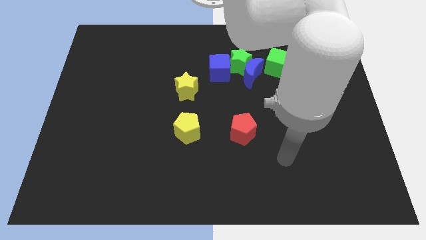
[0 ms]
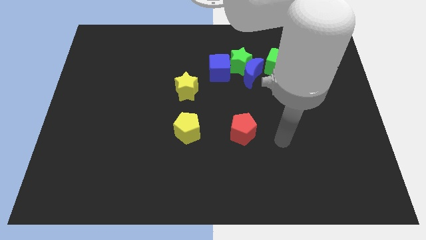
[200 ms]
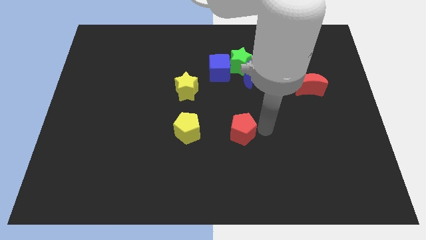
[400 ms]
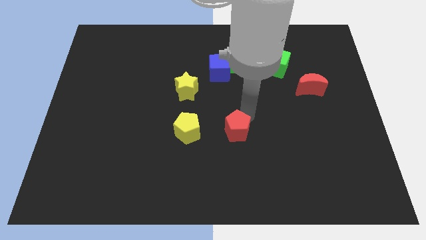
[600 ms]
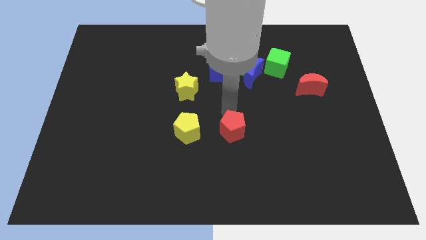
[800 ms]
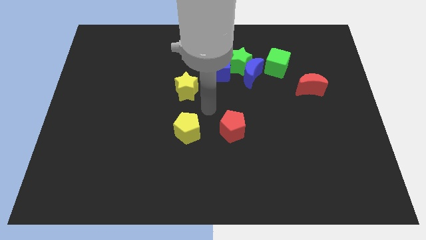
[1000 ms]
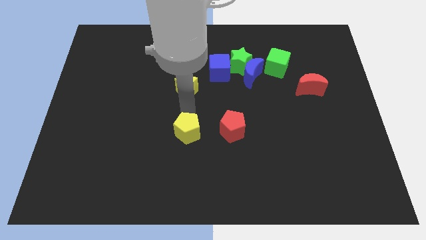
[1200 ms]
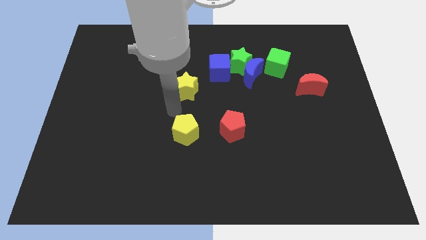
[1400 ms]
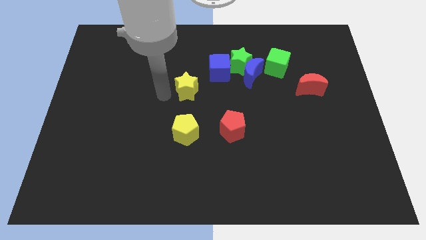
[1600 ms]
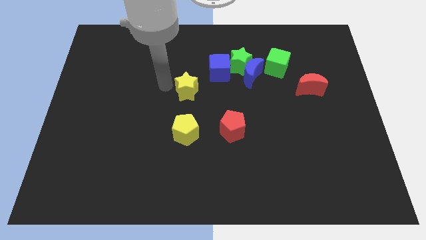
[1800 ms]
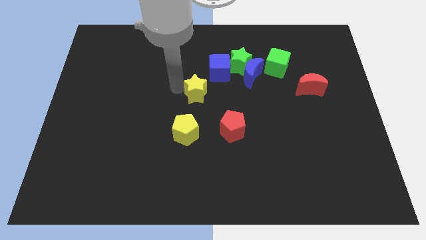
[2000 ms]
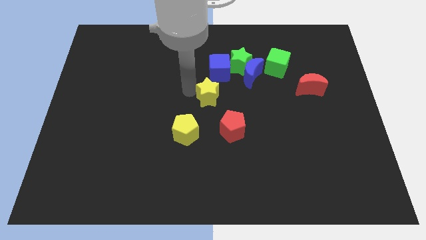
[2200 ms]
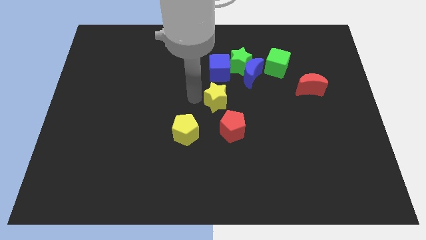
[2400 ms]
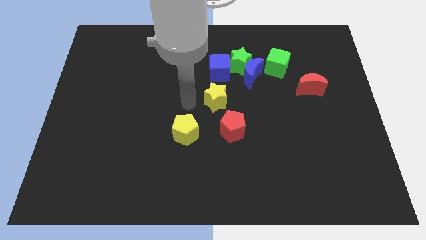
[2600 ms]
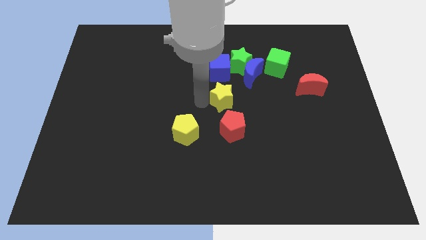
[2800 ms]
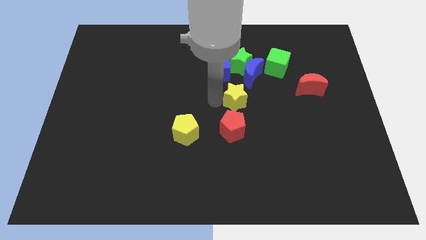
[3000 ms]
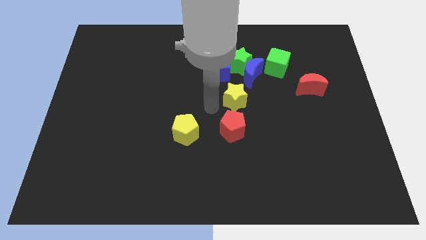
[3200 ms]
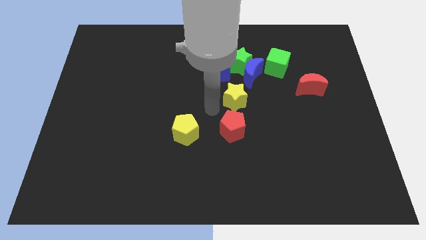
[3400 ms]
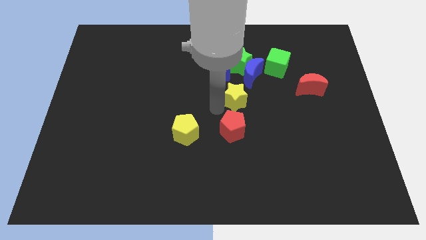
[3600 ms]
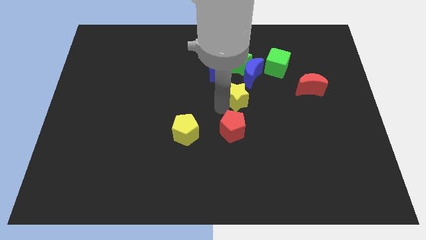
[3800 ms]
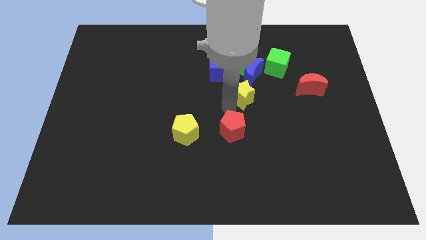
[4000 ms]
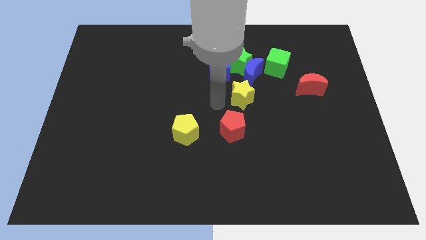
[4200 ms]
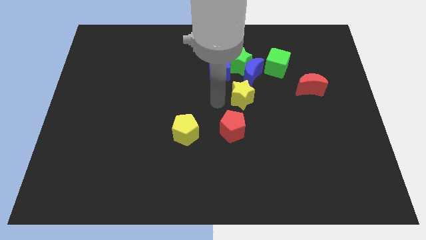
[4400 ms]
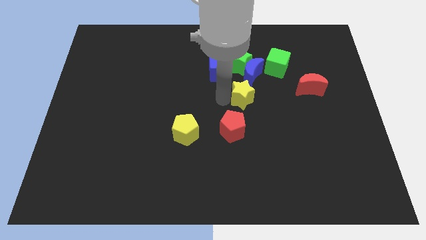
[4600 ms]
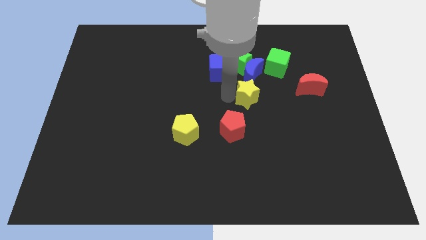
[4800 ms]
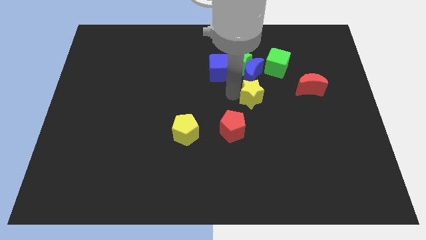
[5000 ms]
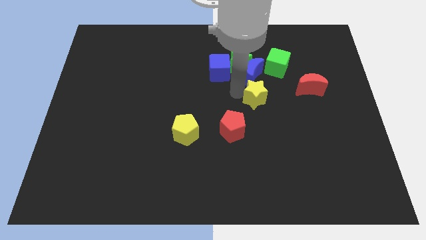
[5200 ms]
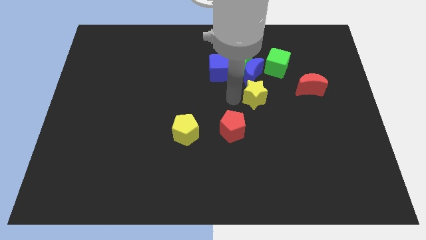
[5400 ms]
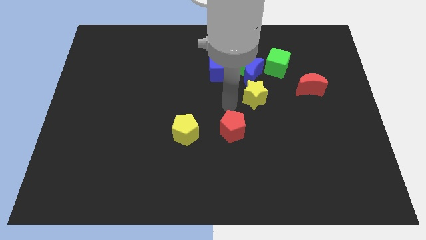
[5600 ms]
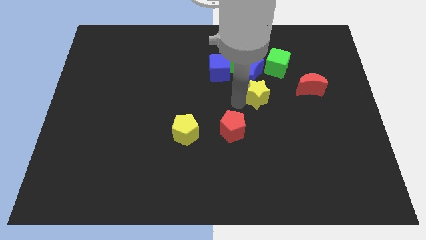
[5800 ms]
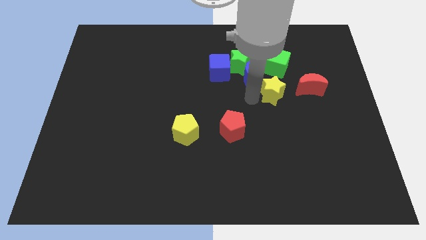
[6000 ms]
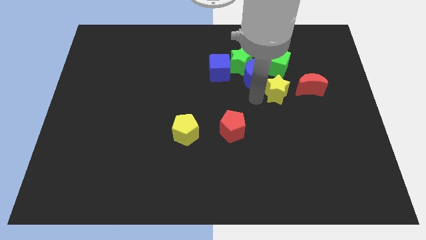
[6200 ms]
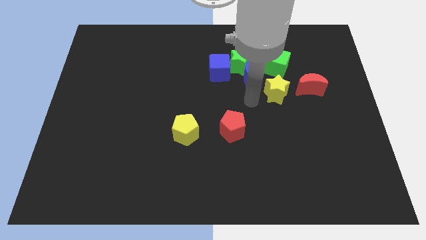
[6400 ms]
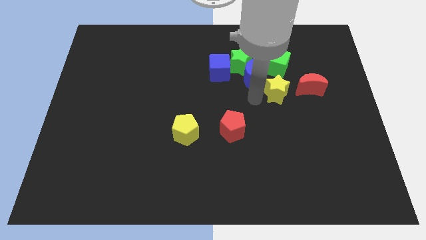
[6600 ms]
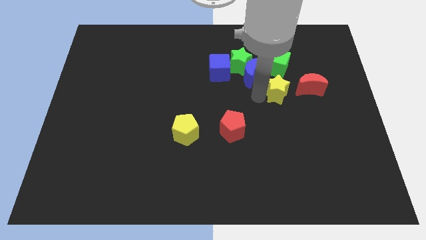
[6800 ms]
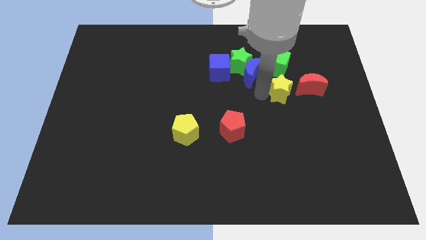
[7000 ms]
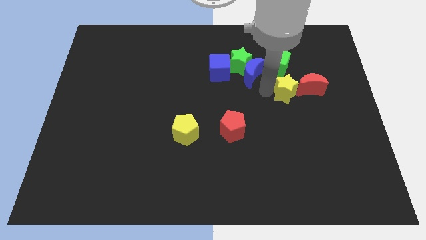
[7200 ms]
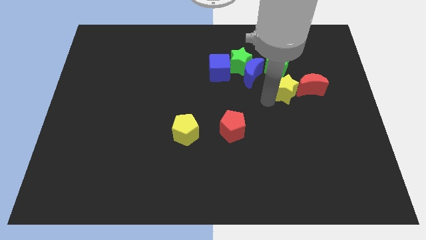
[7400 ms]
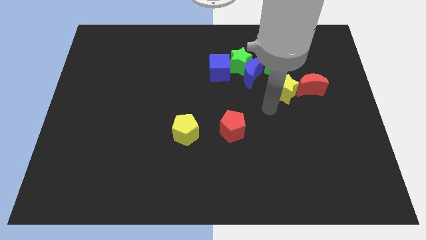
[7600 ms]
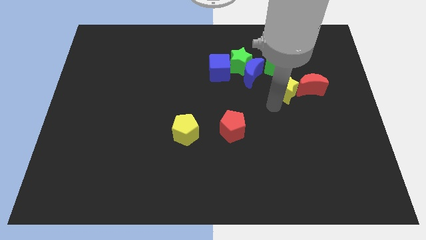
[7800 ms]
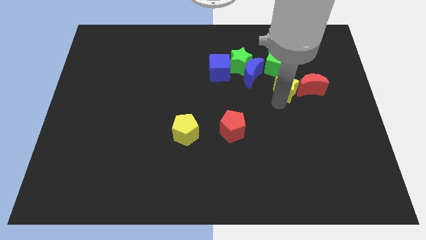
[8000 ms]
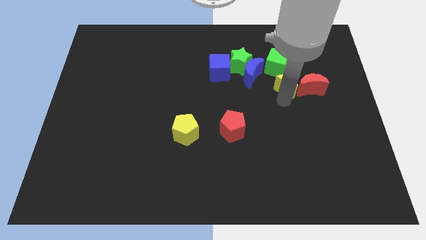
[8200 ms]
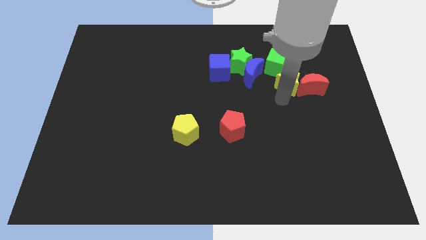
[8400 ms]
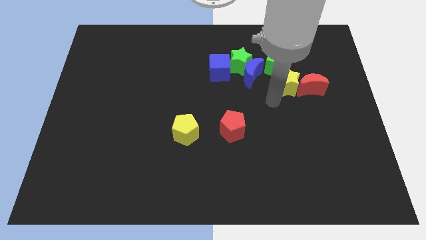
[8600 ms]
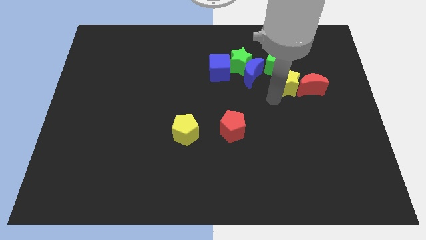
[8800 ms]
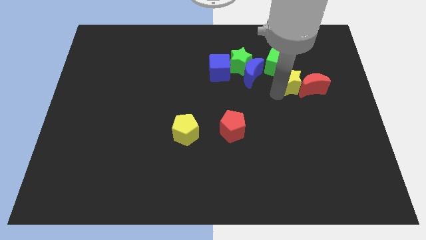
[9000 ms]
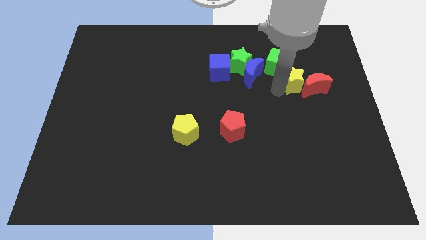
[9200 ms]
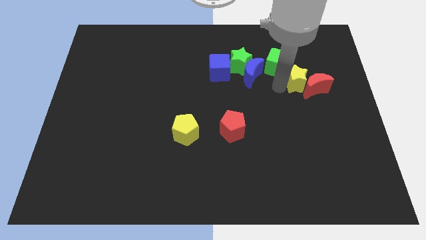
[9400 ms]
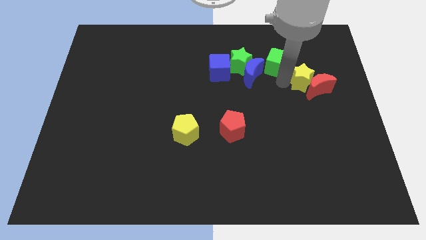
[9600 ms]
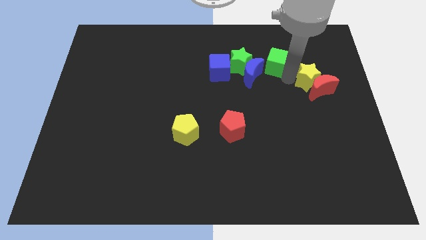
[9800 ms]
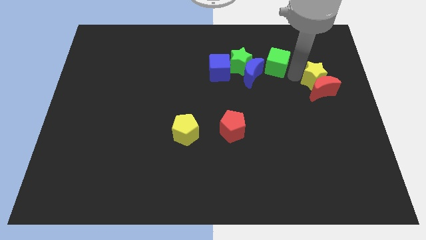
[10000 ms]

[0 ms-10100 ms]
put the yellow star to the top right of the red moon

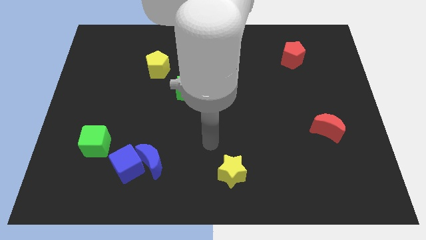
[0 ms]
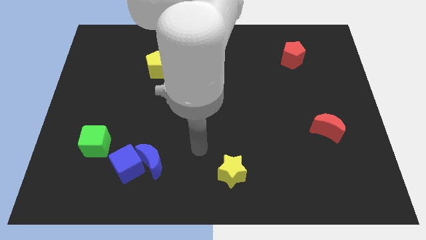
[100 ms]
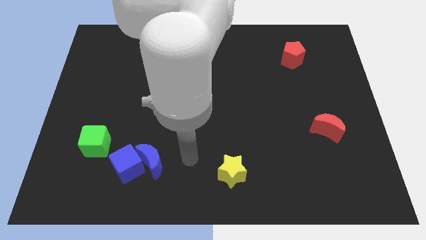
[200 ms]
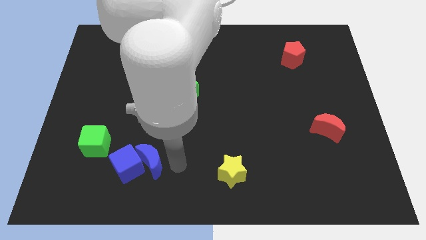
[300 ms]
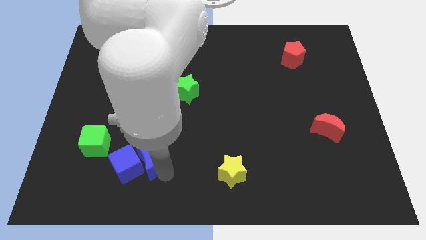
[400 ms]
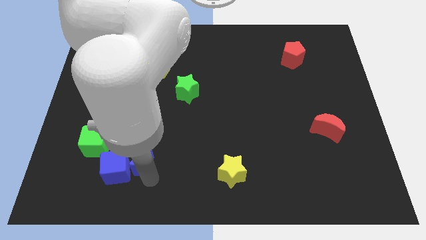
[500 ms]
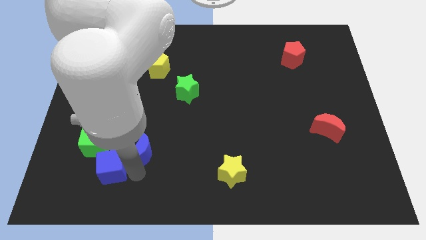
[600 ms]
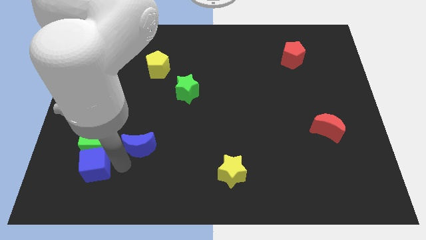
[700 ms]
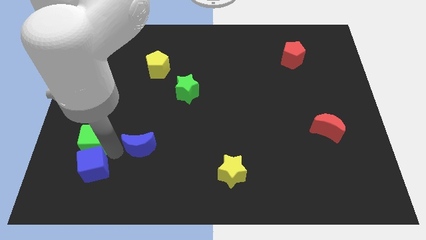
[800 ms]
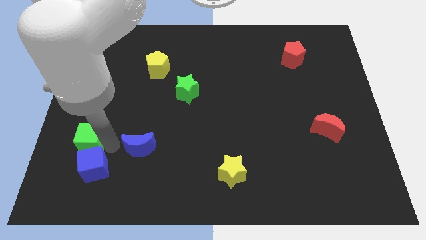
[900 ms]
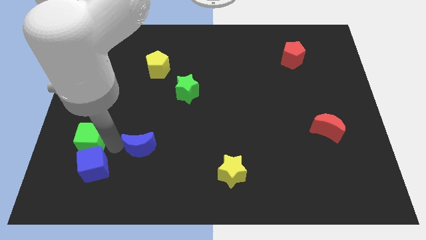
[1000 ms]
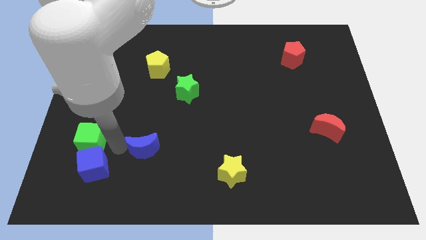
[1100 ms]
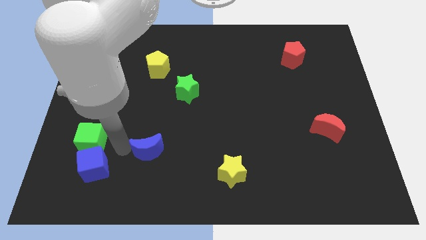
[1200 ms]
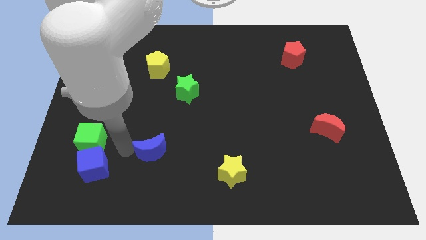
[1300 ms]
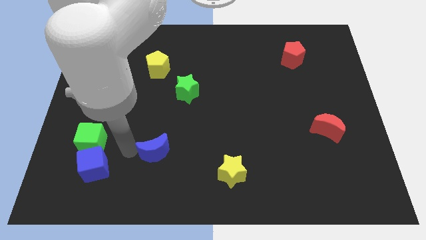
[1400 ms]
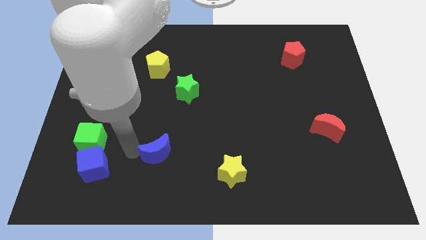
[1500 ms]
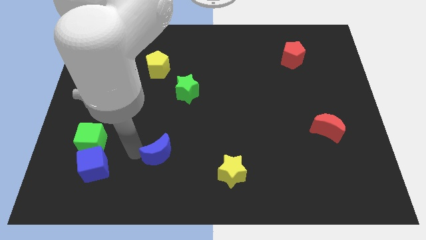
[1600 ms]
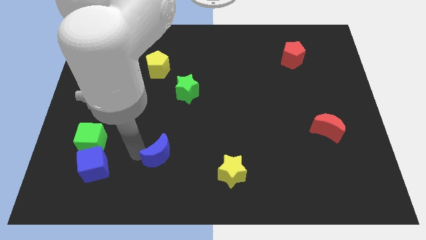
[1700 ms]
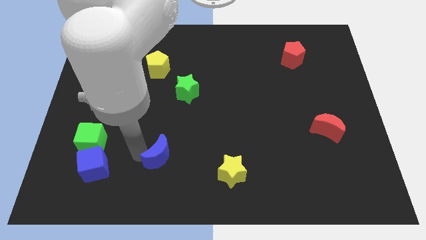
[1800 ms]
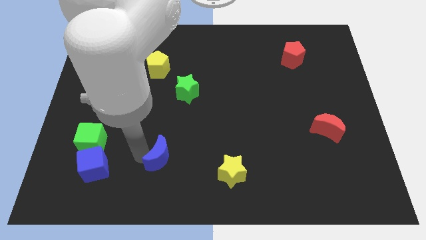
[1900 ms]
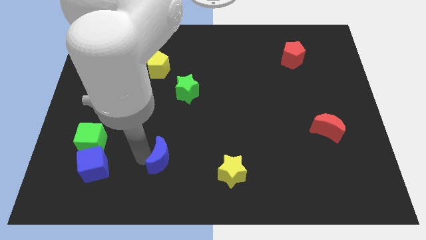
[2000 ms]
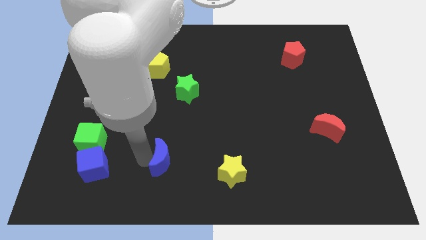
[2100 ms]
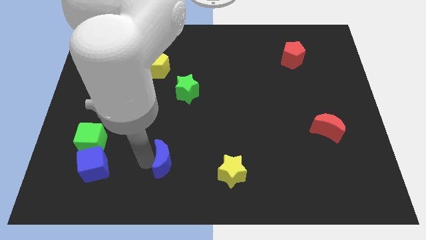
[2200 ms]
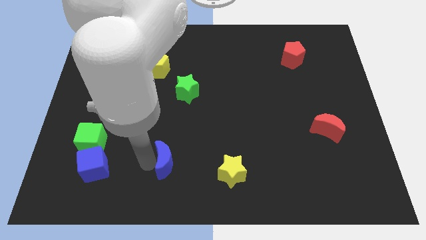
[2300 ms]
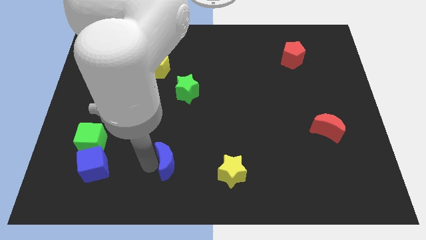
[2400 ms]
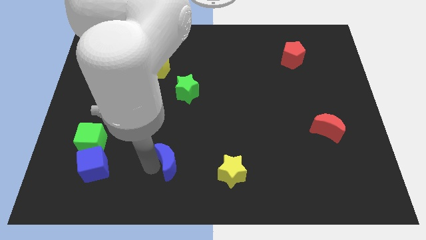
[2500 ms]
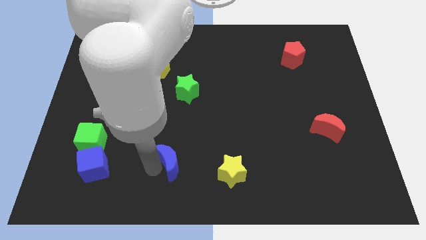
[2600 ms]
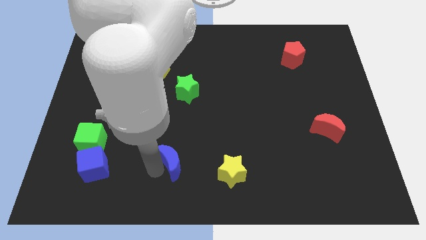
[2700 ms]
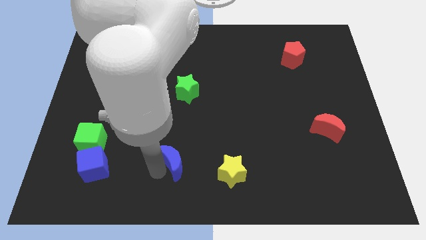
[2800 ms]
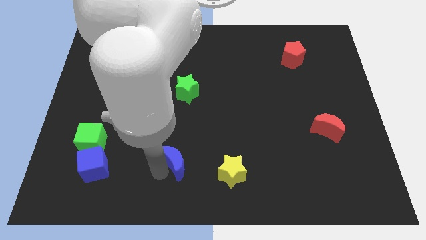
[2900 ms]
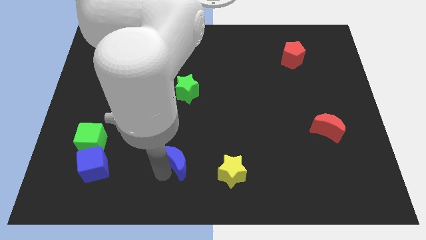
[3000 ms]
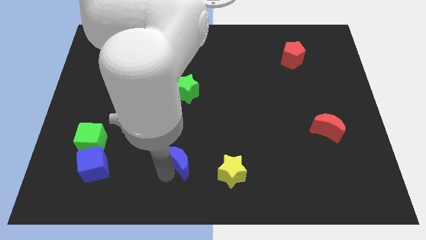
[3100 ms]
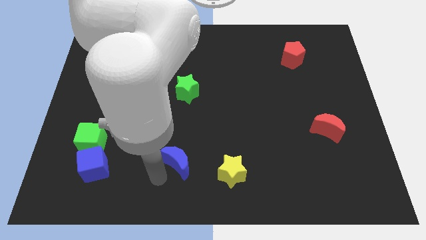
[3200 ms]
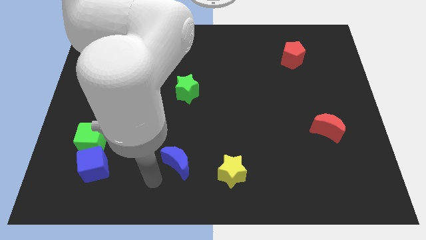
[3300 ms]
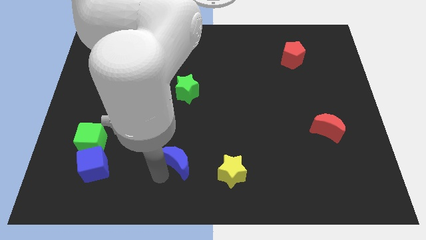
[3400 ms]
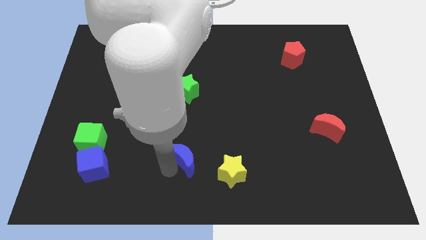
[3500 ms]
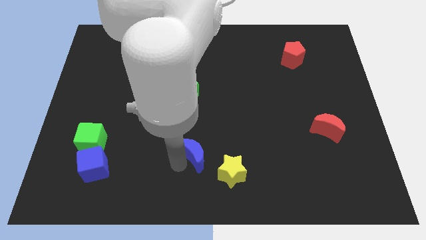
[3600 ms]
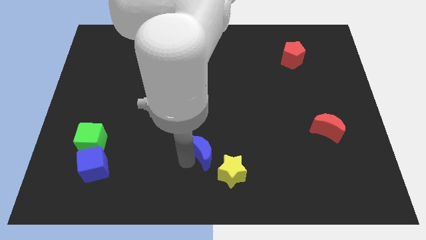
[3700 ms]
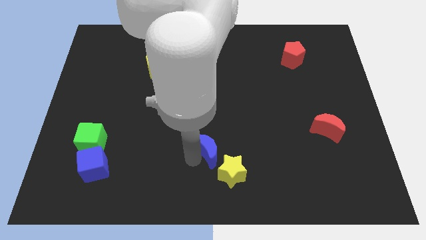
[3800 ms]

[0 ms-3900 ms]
push the blue moon above the yellow star
